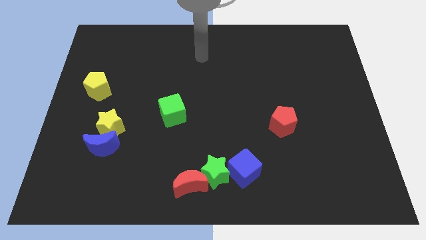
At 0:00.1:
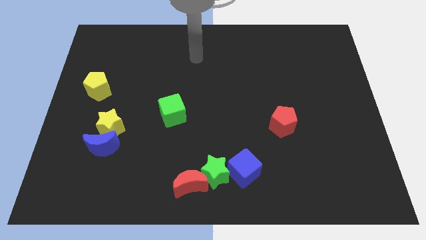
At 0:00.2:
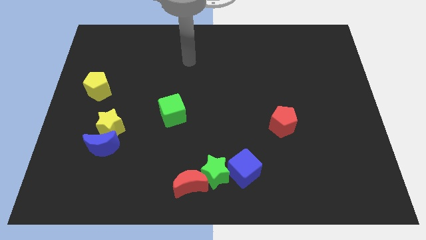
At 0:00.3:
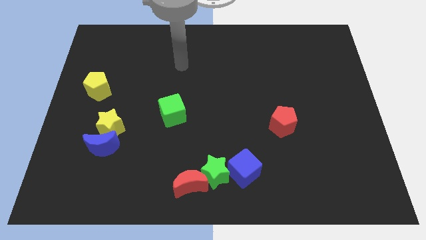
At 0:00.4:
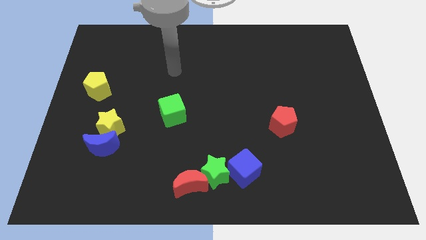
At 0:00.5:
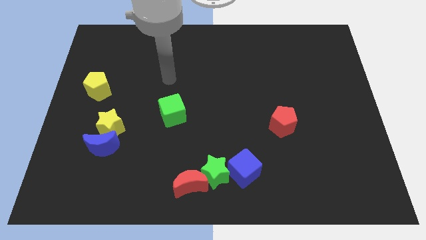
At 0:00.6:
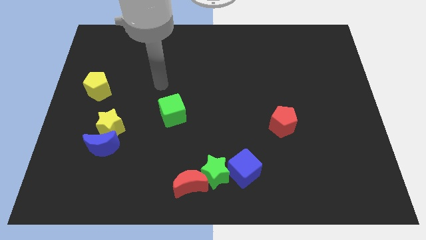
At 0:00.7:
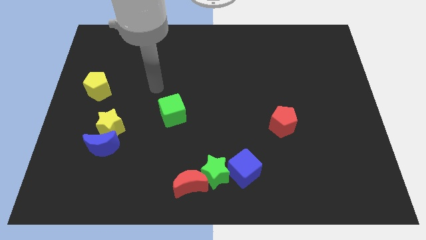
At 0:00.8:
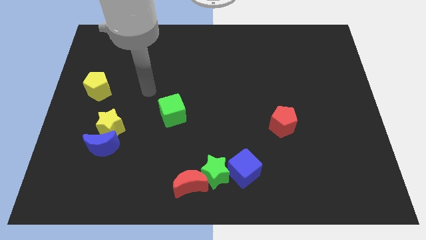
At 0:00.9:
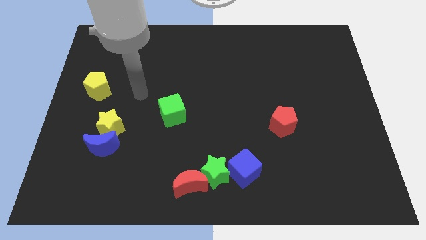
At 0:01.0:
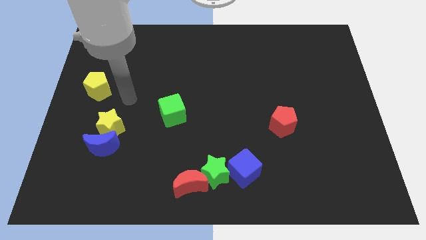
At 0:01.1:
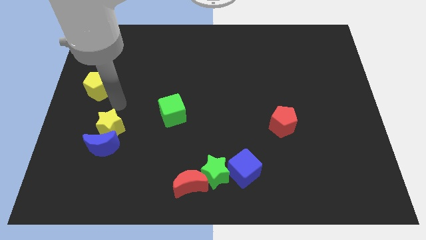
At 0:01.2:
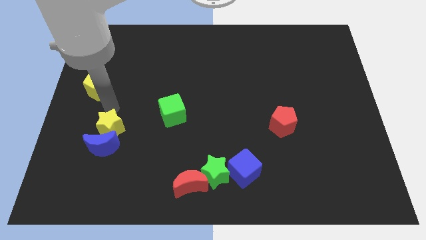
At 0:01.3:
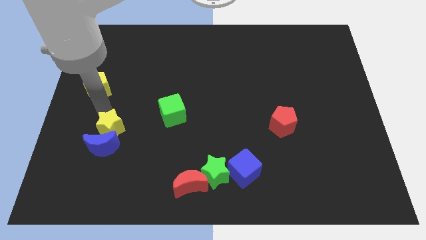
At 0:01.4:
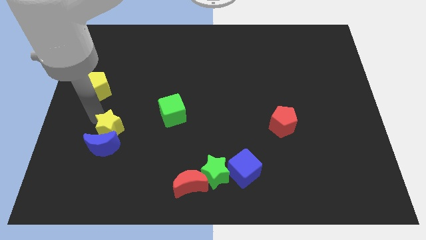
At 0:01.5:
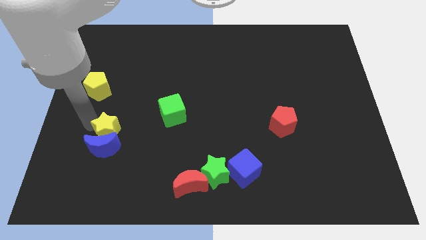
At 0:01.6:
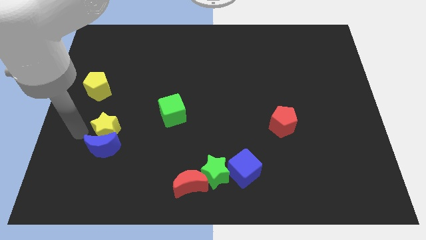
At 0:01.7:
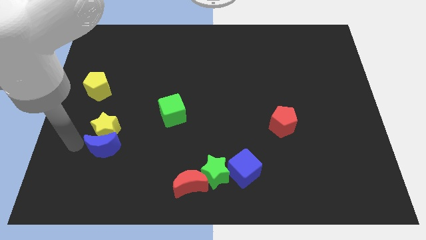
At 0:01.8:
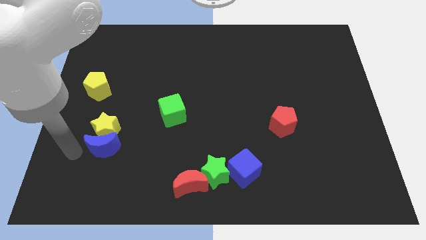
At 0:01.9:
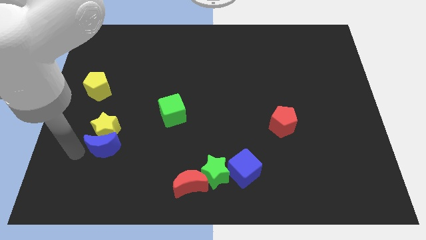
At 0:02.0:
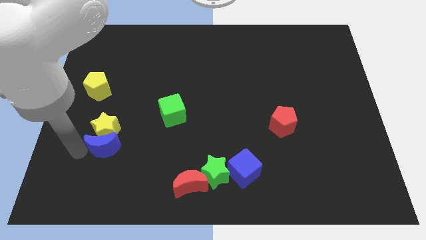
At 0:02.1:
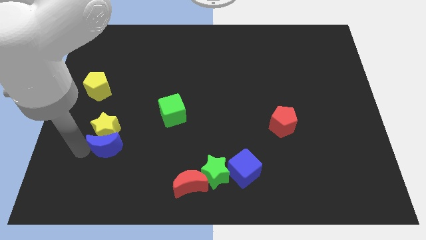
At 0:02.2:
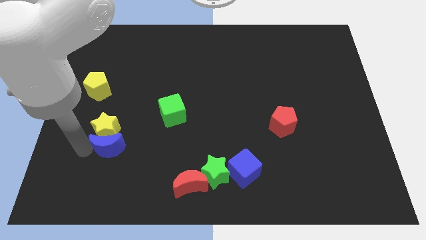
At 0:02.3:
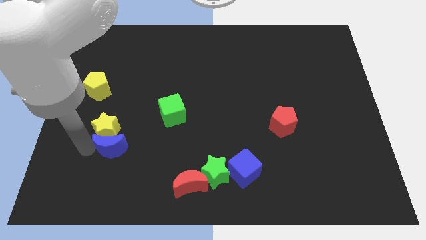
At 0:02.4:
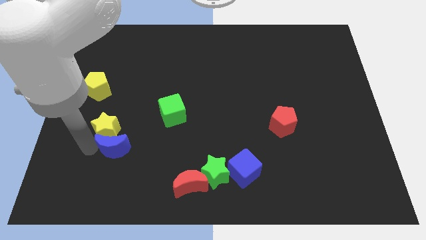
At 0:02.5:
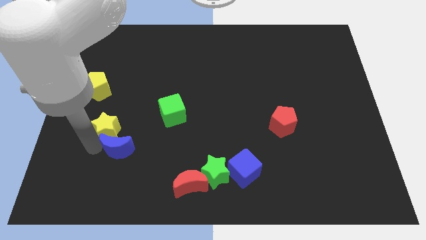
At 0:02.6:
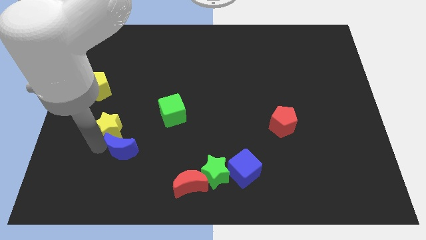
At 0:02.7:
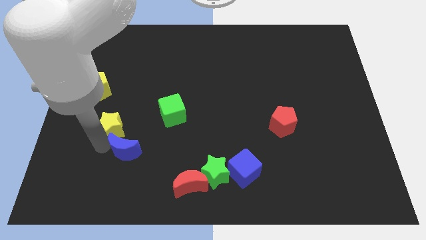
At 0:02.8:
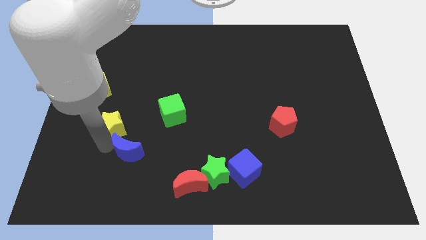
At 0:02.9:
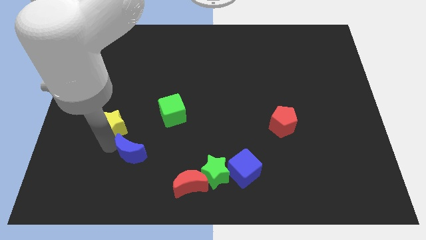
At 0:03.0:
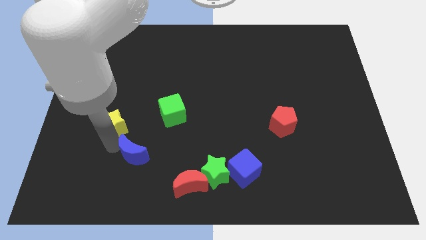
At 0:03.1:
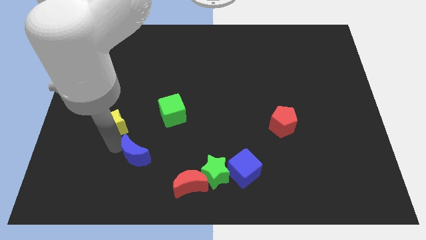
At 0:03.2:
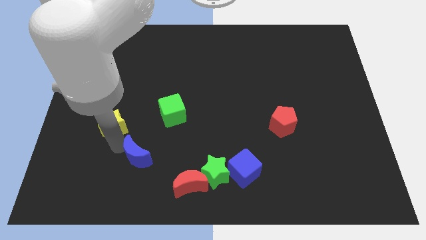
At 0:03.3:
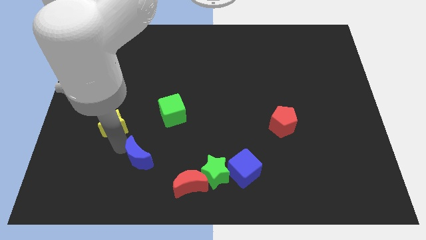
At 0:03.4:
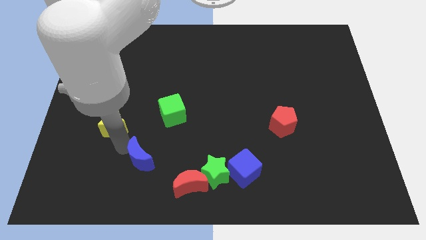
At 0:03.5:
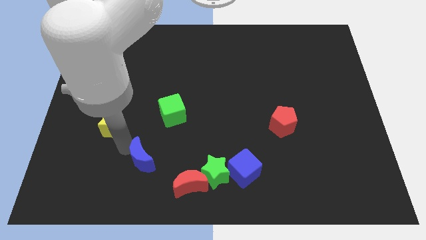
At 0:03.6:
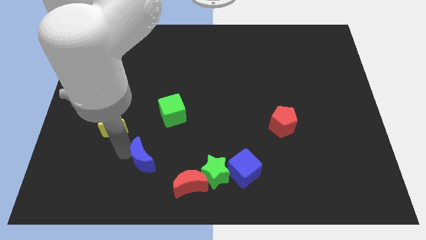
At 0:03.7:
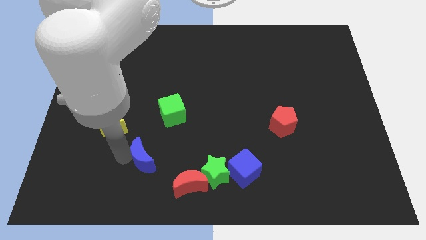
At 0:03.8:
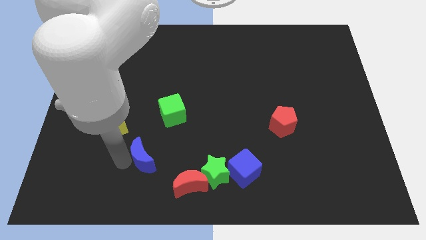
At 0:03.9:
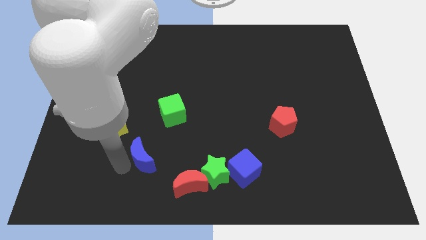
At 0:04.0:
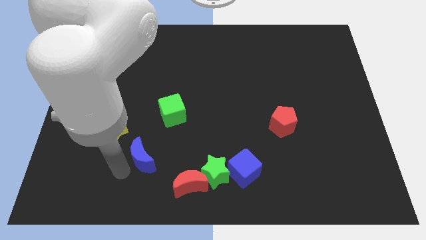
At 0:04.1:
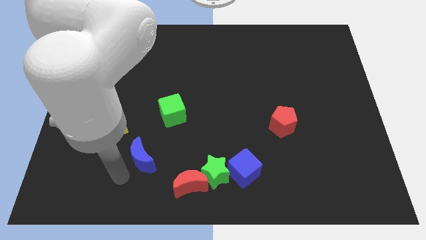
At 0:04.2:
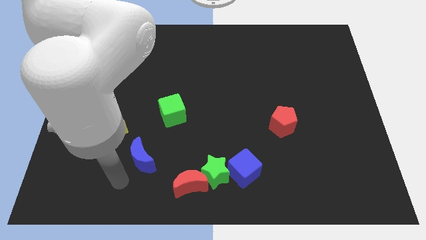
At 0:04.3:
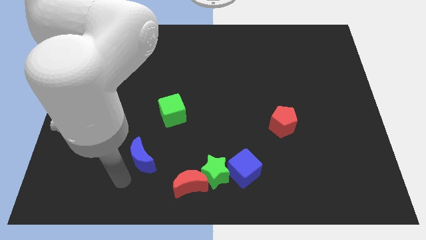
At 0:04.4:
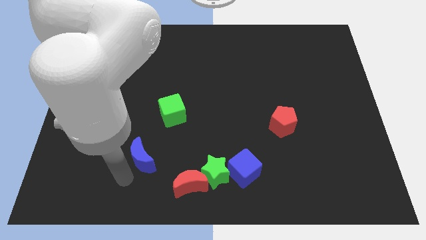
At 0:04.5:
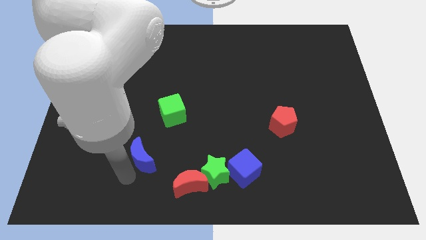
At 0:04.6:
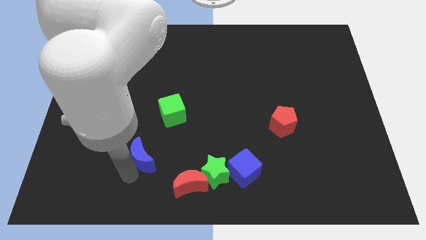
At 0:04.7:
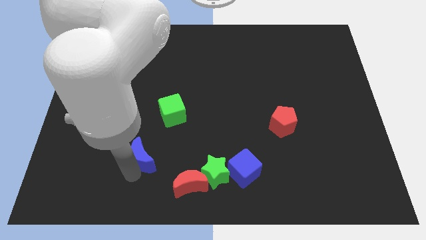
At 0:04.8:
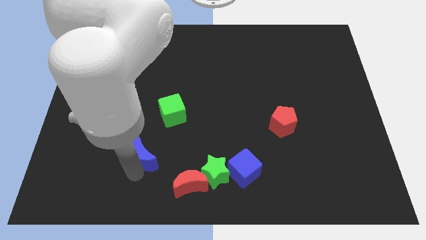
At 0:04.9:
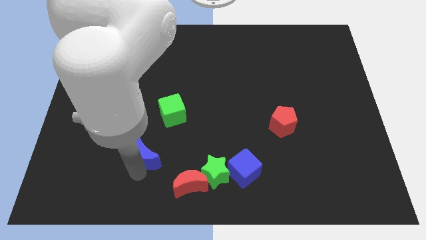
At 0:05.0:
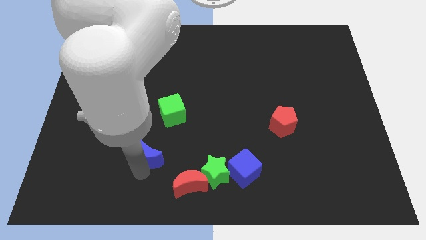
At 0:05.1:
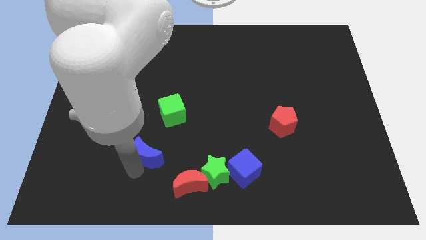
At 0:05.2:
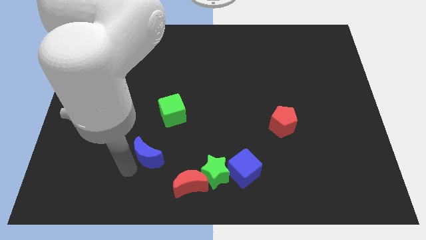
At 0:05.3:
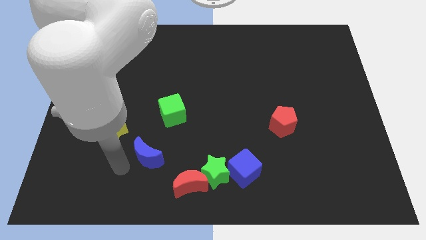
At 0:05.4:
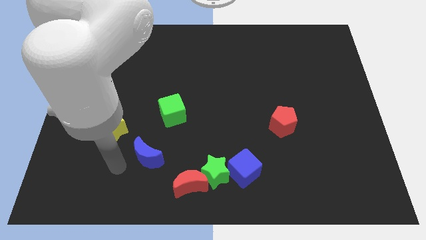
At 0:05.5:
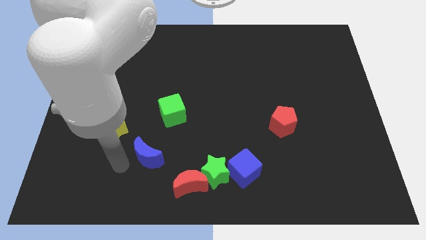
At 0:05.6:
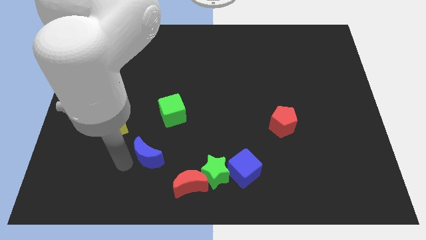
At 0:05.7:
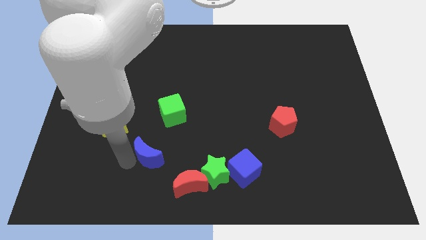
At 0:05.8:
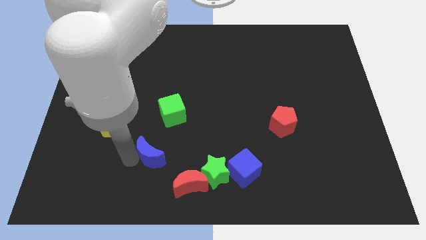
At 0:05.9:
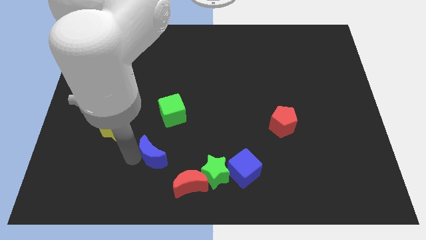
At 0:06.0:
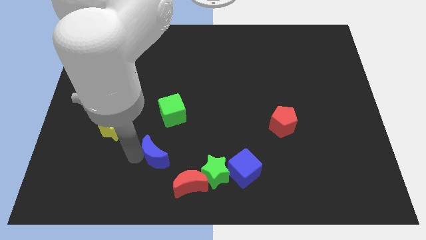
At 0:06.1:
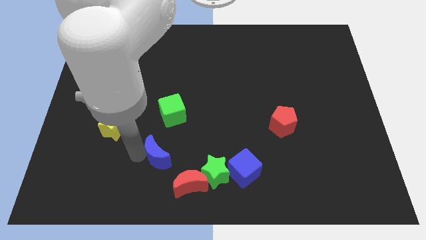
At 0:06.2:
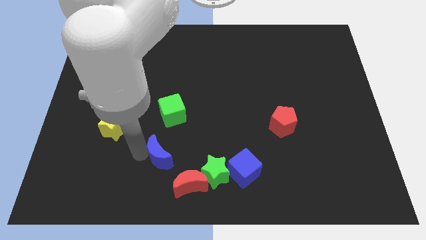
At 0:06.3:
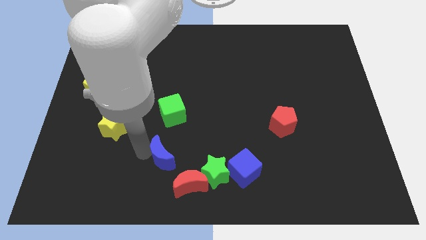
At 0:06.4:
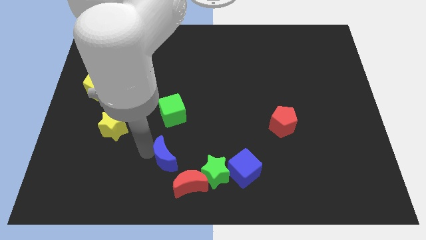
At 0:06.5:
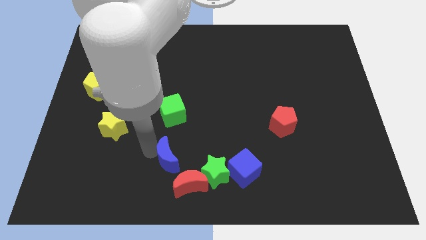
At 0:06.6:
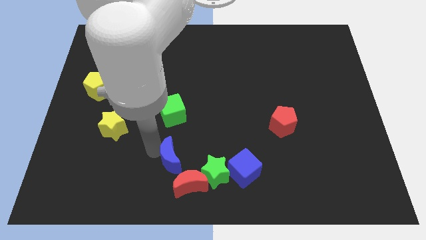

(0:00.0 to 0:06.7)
slide the blue moon to the top left of the green star

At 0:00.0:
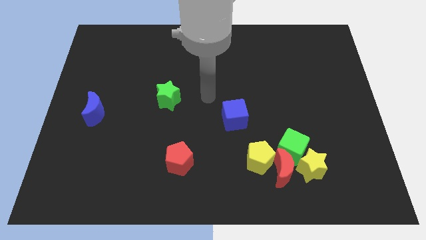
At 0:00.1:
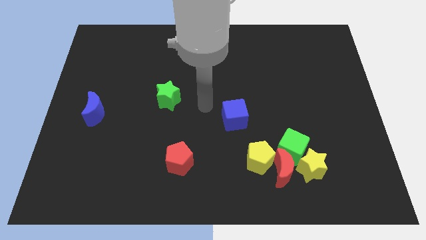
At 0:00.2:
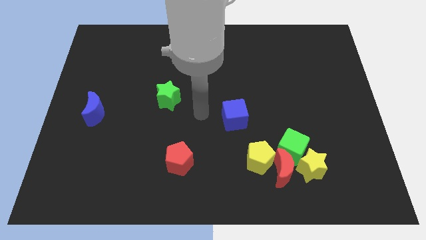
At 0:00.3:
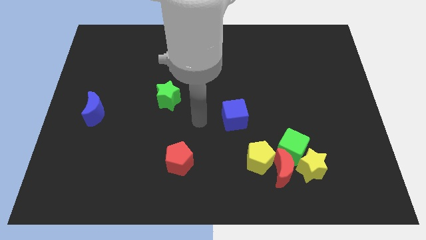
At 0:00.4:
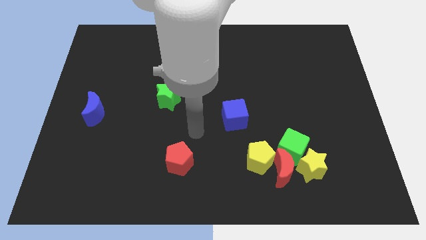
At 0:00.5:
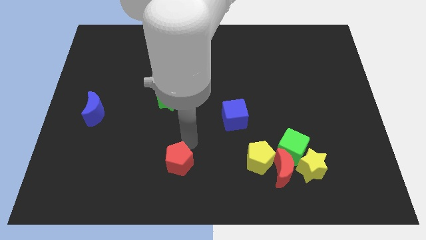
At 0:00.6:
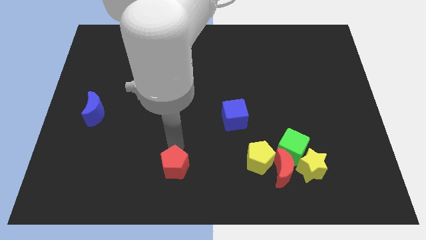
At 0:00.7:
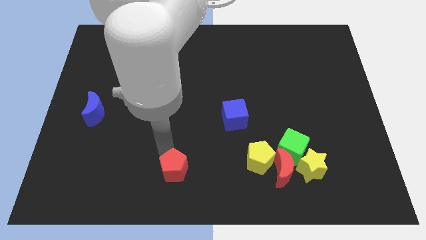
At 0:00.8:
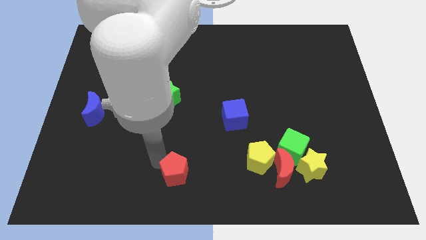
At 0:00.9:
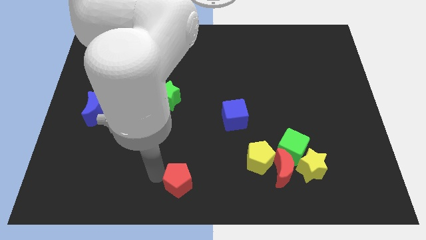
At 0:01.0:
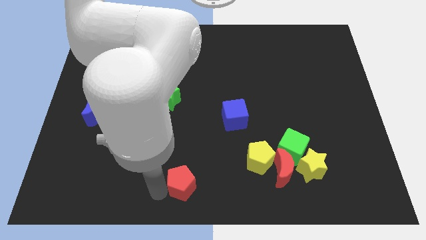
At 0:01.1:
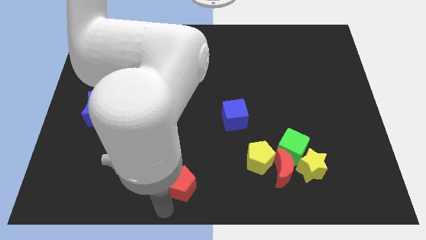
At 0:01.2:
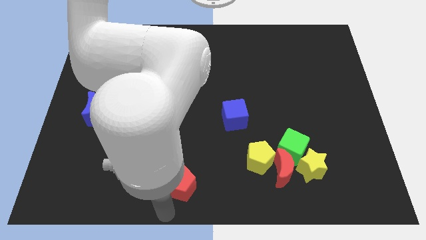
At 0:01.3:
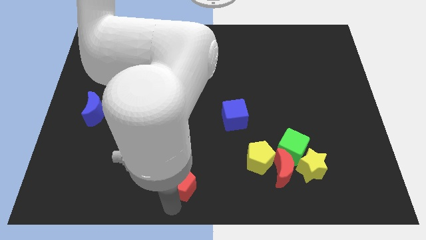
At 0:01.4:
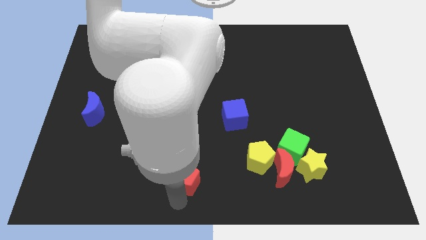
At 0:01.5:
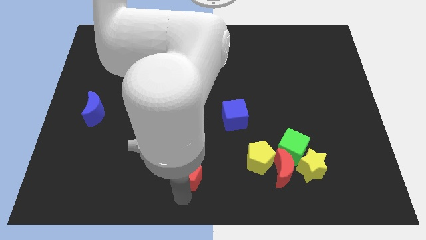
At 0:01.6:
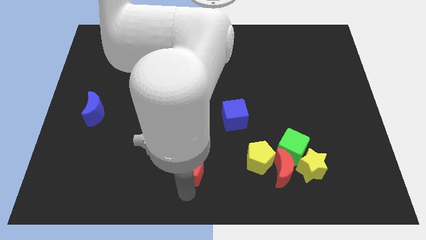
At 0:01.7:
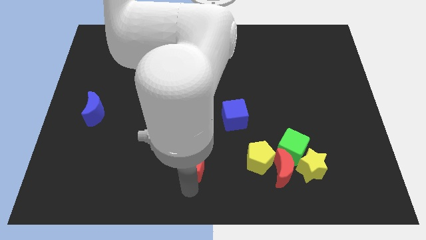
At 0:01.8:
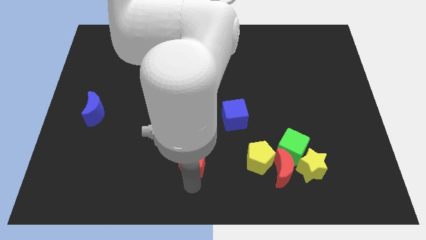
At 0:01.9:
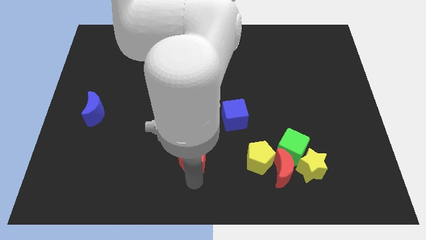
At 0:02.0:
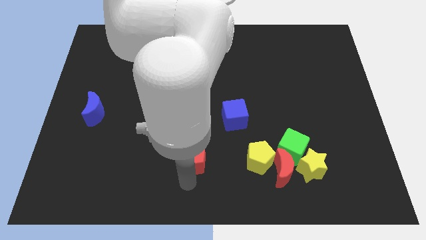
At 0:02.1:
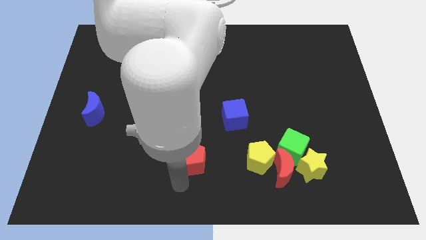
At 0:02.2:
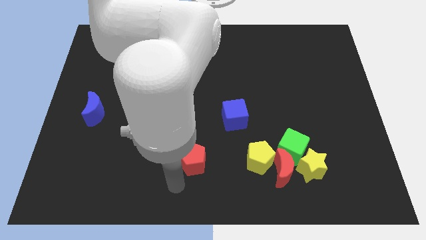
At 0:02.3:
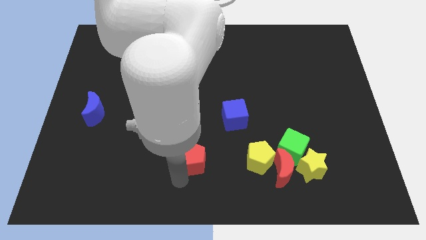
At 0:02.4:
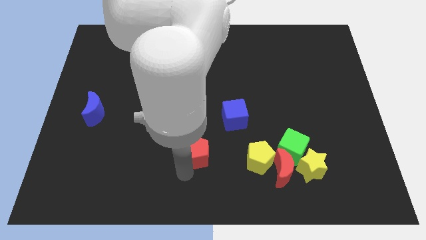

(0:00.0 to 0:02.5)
push the red pentagon to the bottom left of the blue cube
